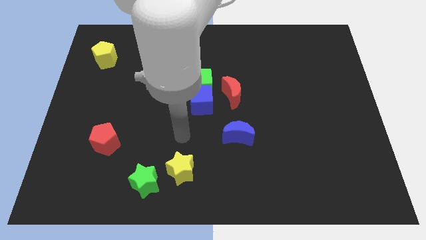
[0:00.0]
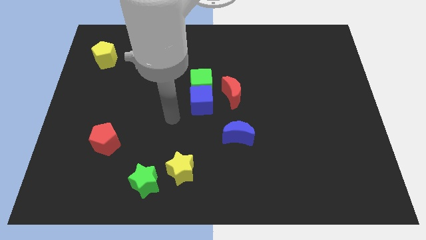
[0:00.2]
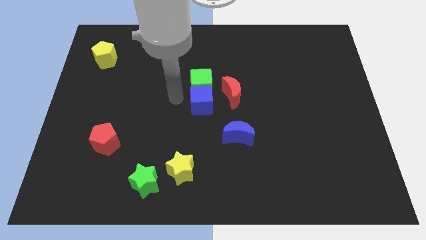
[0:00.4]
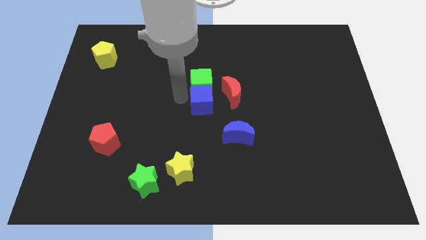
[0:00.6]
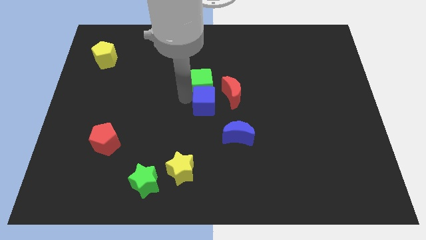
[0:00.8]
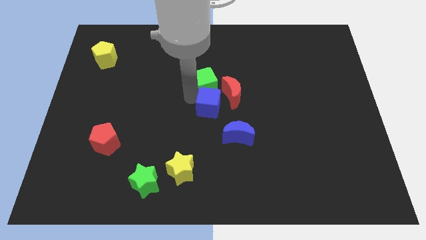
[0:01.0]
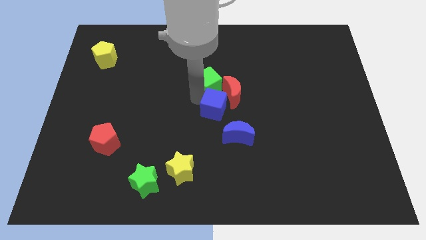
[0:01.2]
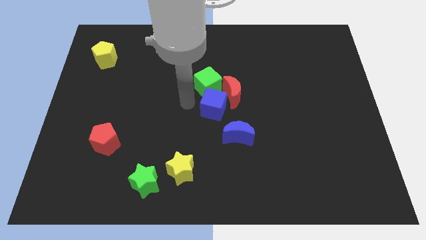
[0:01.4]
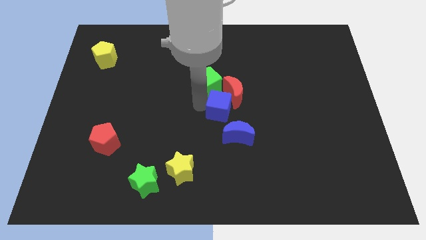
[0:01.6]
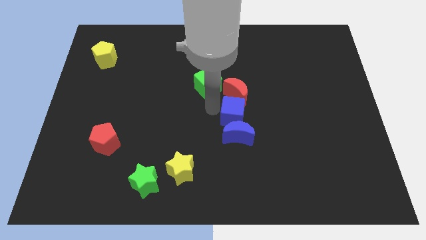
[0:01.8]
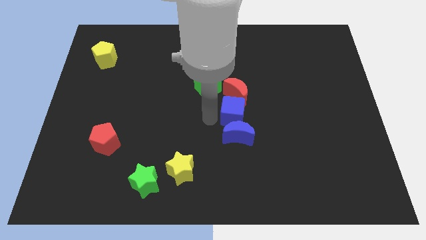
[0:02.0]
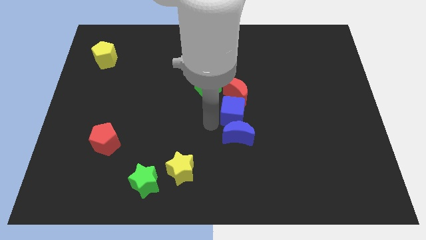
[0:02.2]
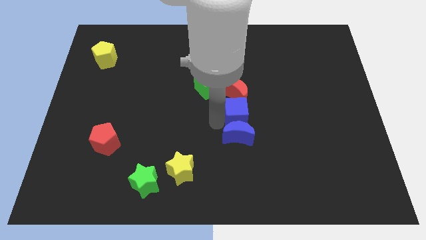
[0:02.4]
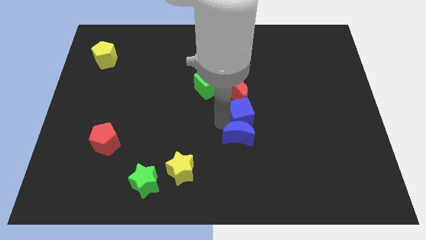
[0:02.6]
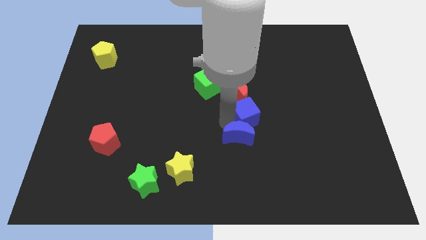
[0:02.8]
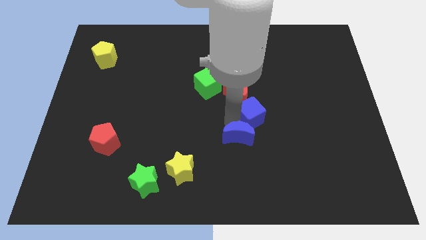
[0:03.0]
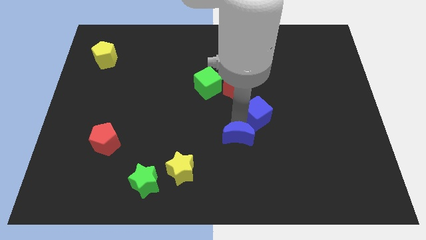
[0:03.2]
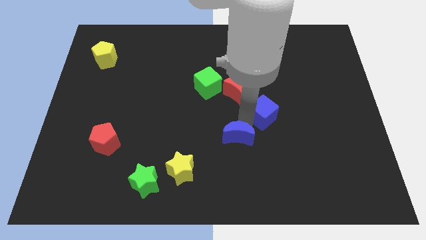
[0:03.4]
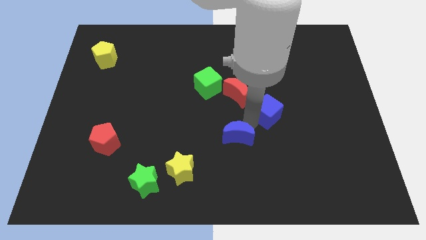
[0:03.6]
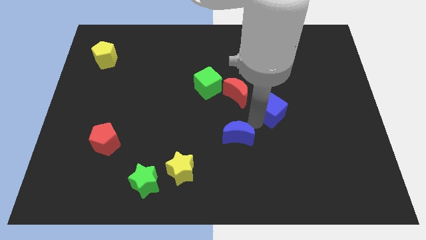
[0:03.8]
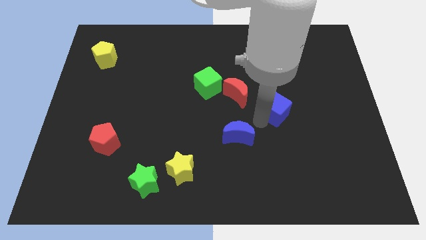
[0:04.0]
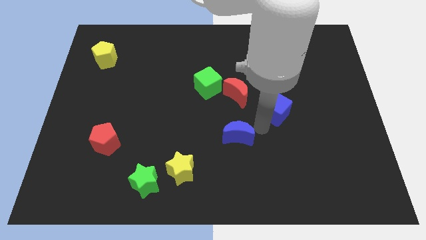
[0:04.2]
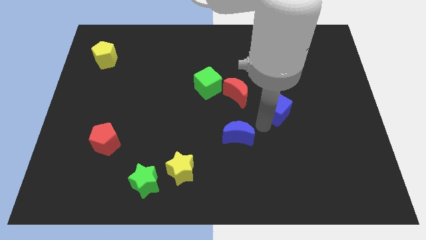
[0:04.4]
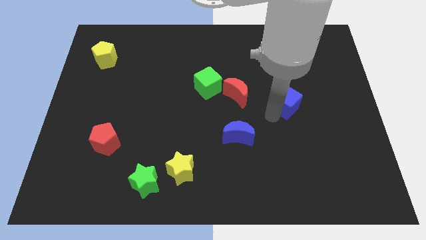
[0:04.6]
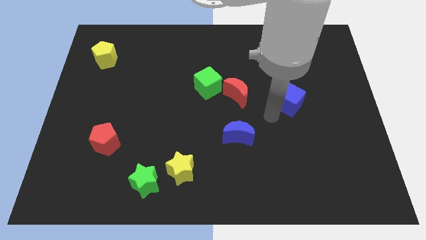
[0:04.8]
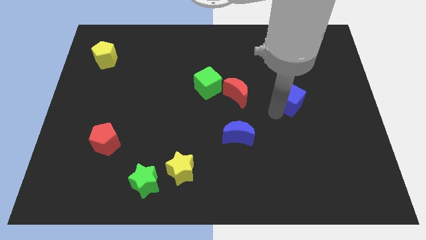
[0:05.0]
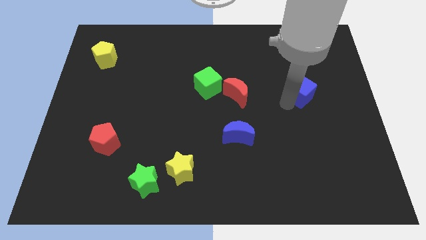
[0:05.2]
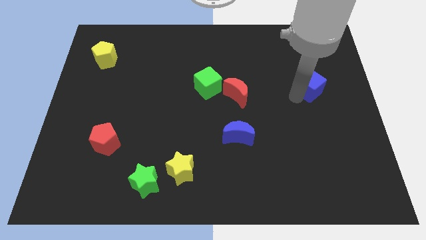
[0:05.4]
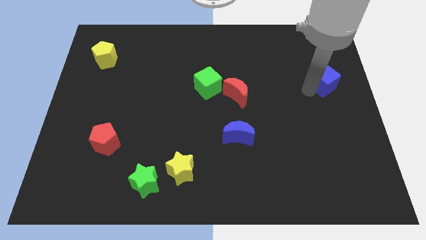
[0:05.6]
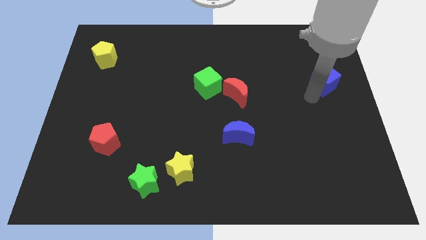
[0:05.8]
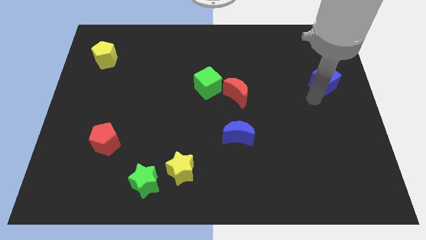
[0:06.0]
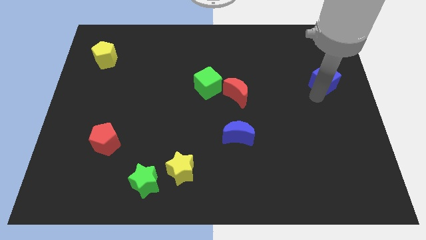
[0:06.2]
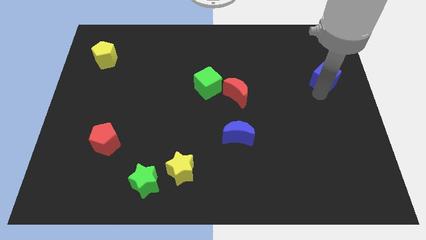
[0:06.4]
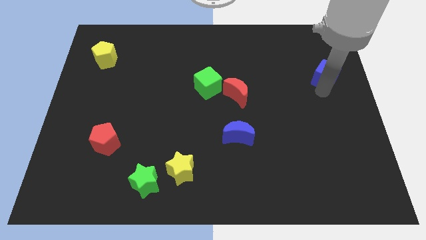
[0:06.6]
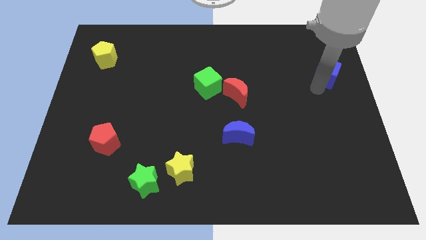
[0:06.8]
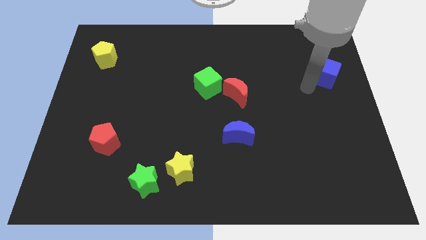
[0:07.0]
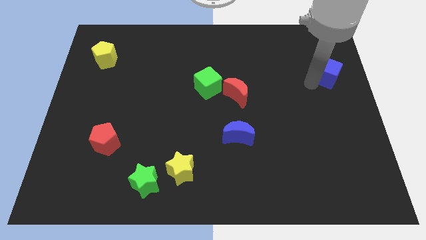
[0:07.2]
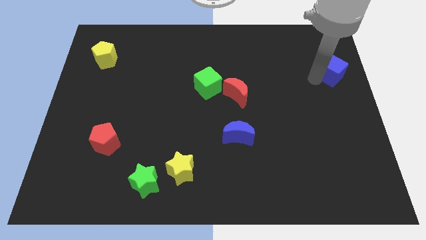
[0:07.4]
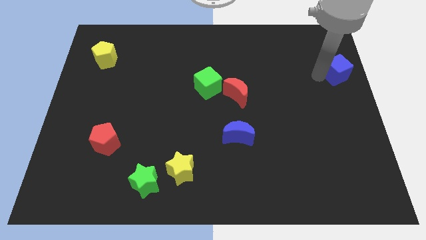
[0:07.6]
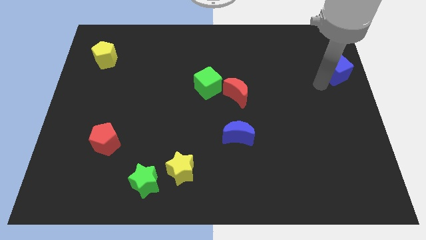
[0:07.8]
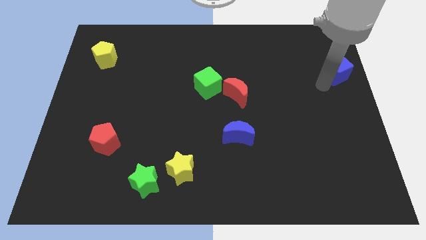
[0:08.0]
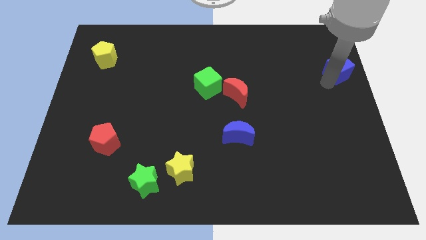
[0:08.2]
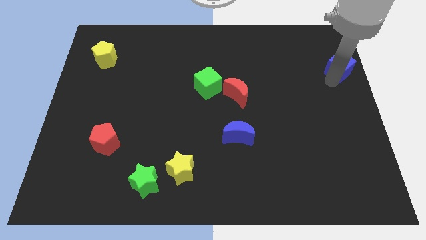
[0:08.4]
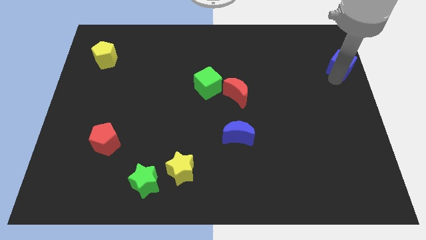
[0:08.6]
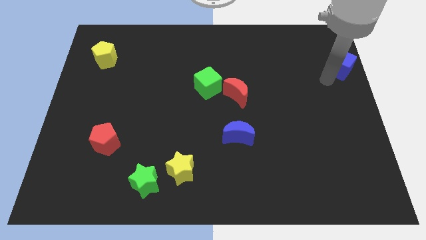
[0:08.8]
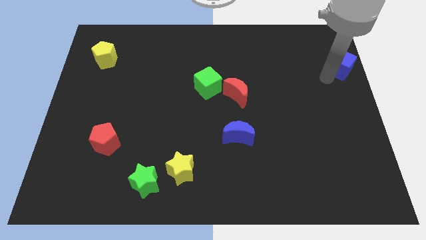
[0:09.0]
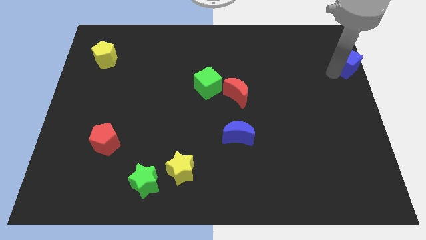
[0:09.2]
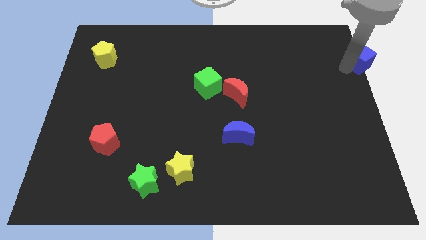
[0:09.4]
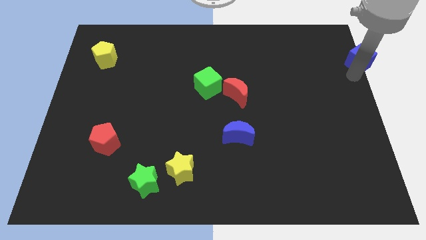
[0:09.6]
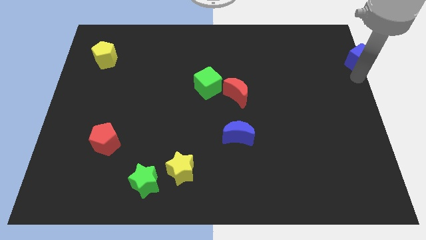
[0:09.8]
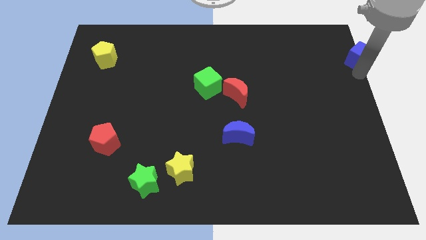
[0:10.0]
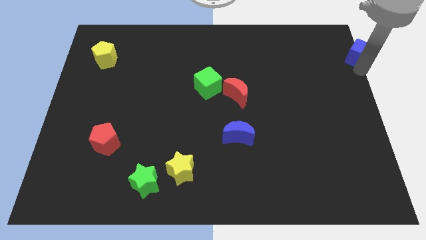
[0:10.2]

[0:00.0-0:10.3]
move the blue cube to the top right corner

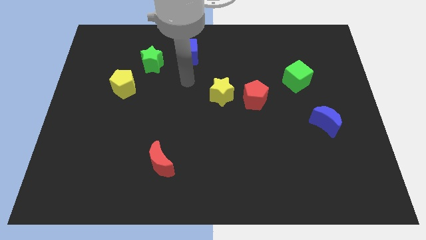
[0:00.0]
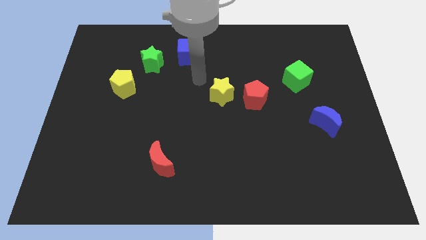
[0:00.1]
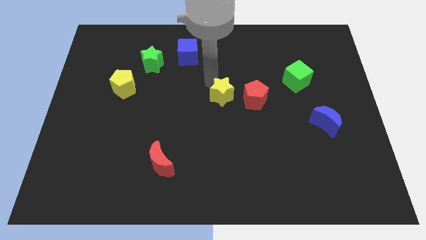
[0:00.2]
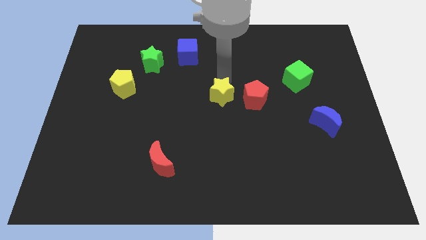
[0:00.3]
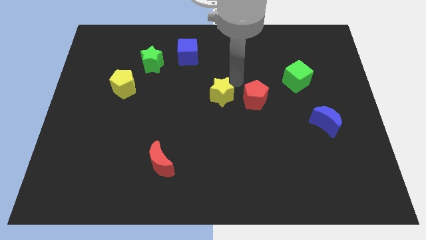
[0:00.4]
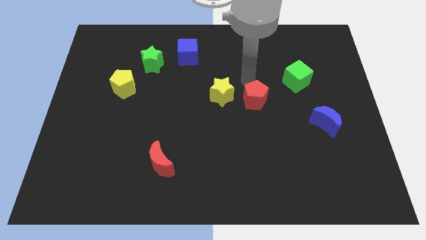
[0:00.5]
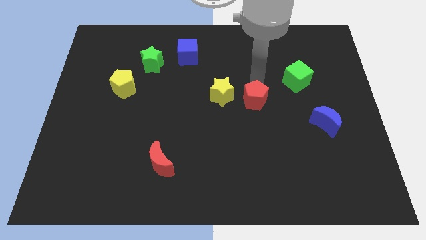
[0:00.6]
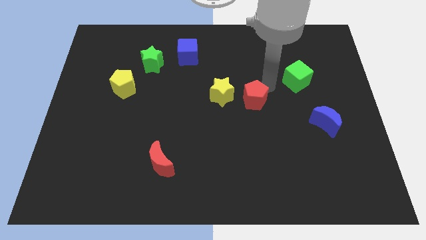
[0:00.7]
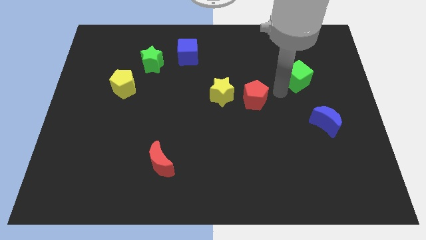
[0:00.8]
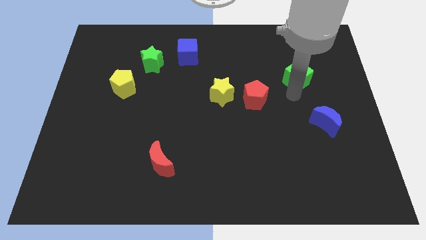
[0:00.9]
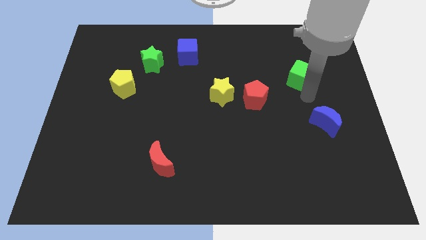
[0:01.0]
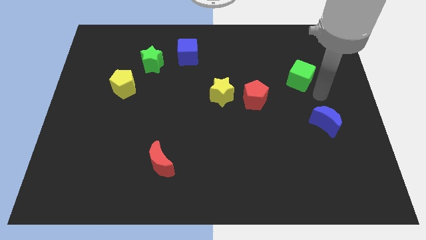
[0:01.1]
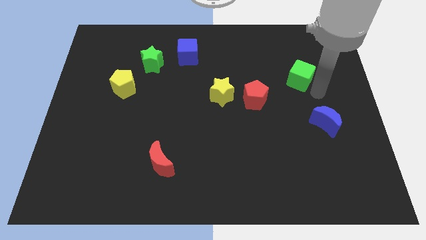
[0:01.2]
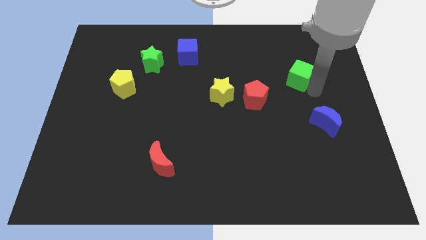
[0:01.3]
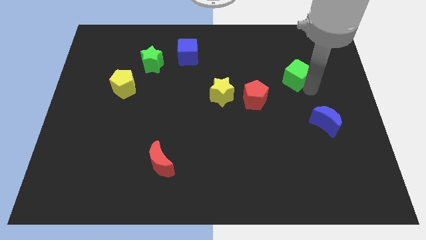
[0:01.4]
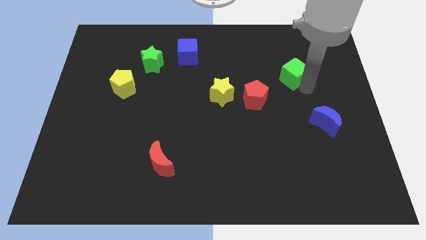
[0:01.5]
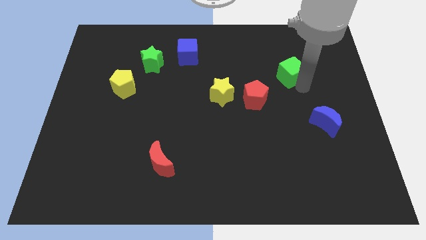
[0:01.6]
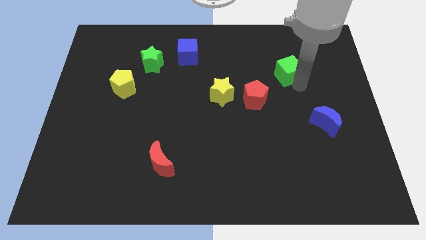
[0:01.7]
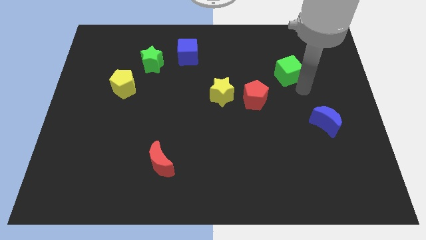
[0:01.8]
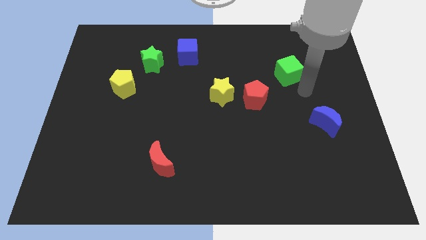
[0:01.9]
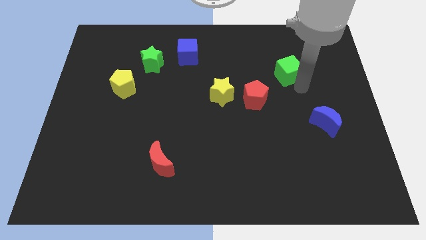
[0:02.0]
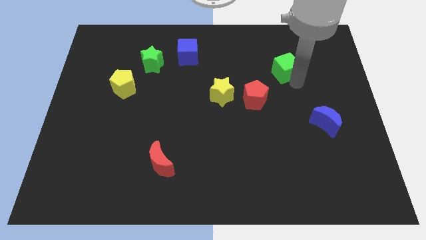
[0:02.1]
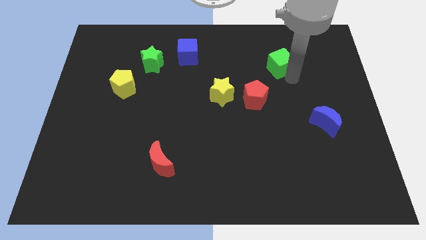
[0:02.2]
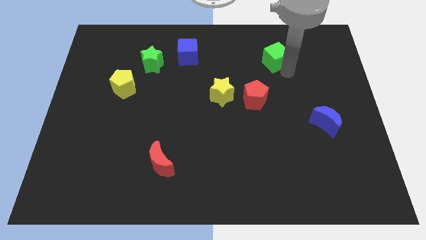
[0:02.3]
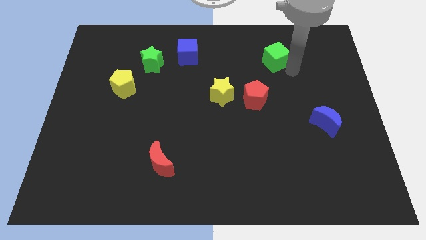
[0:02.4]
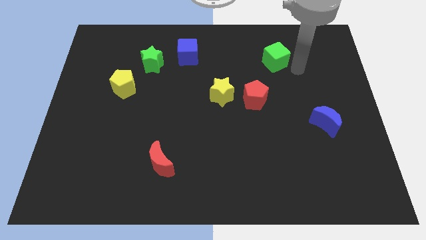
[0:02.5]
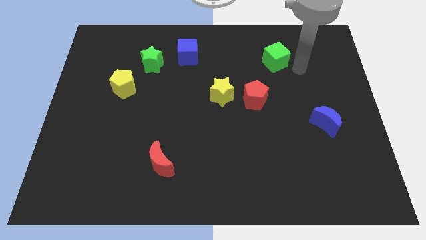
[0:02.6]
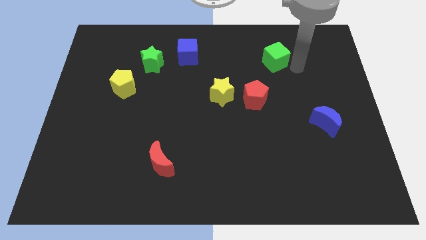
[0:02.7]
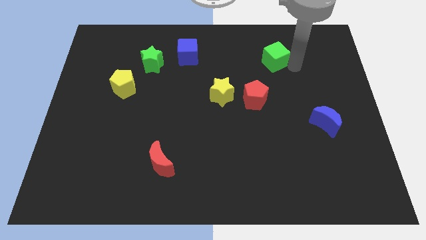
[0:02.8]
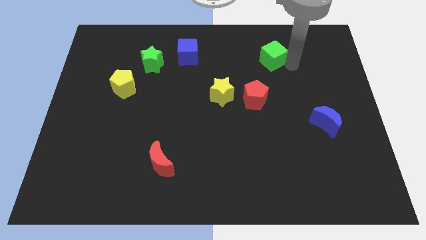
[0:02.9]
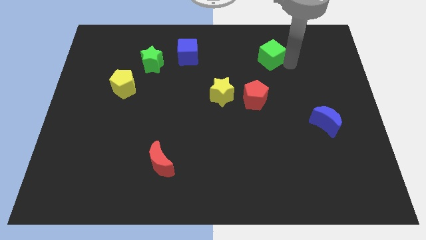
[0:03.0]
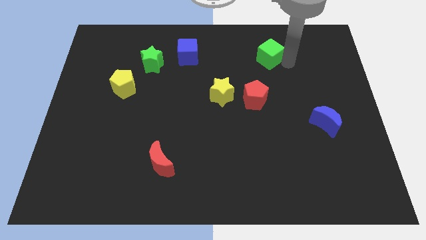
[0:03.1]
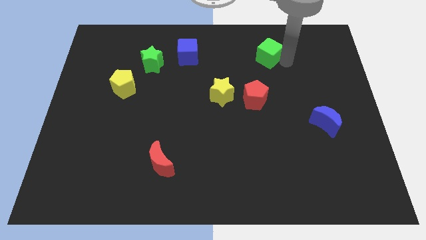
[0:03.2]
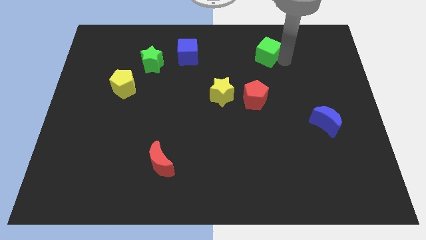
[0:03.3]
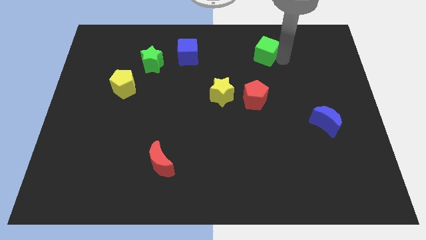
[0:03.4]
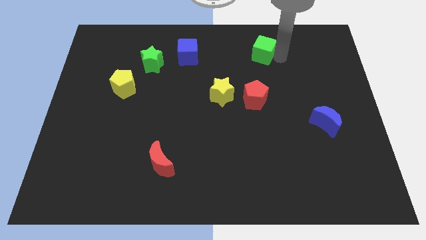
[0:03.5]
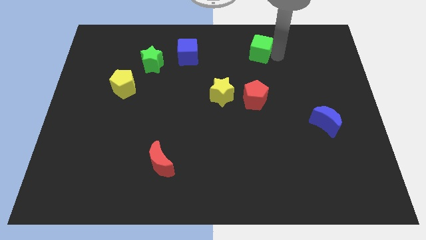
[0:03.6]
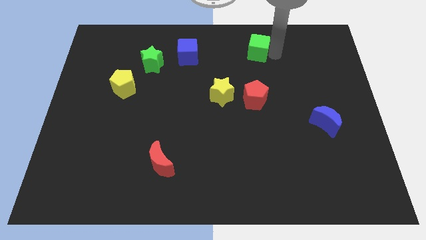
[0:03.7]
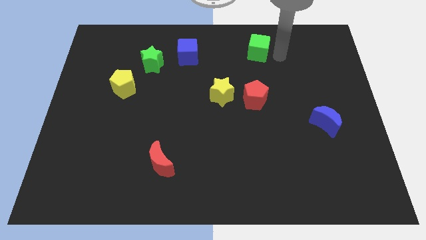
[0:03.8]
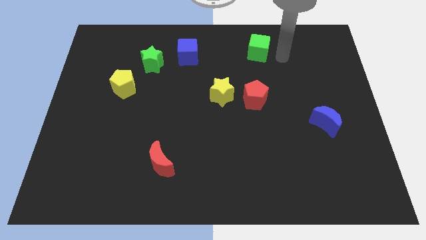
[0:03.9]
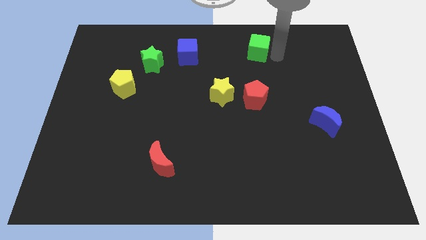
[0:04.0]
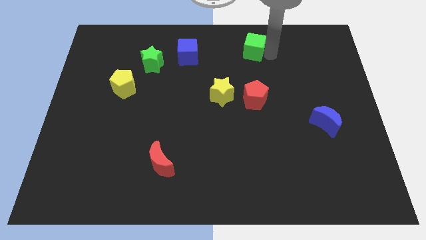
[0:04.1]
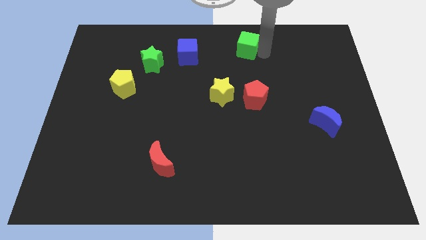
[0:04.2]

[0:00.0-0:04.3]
push the green cube to the towards your base
